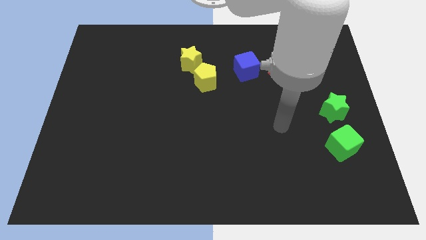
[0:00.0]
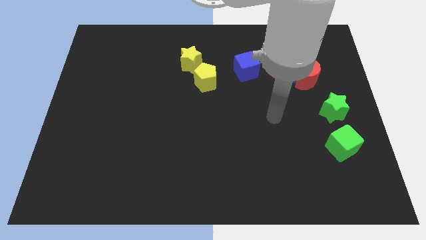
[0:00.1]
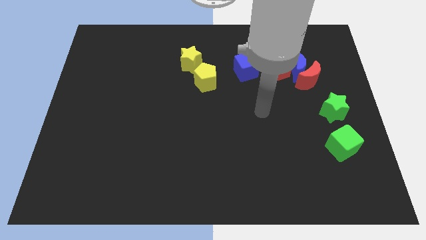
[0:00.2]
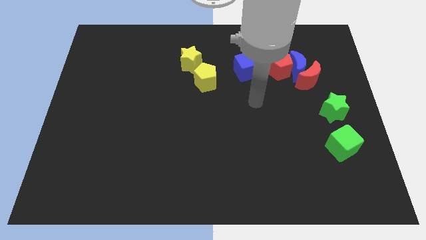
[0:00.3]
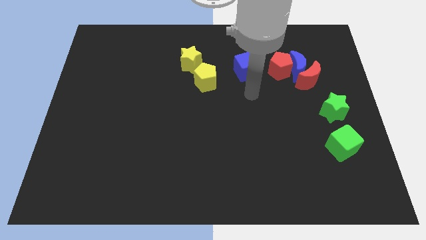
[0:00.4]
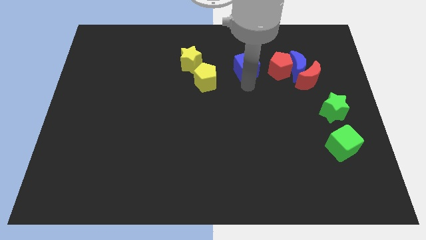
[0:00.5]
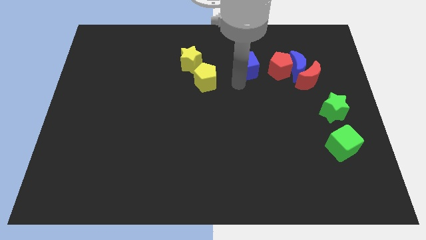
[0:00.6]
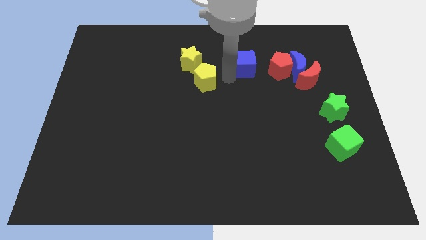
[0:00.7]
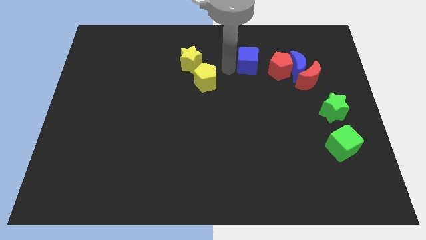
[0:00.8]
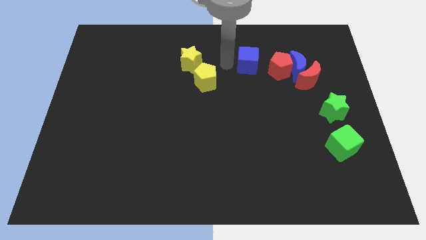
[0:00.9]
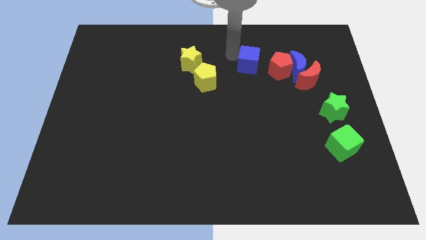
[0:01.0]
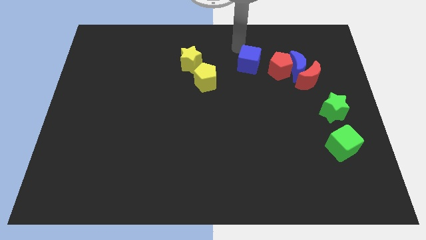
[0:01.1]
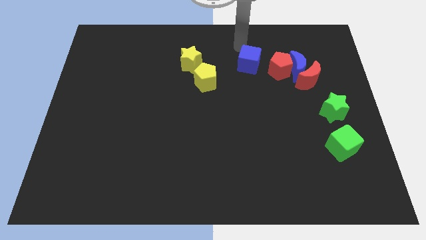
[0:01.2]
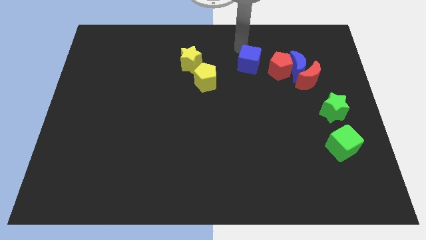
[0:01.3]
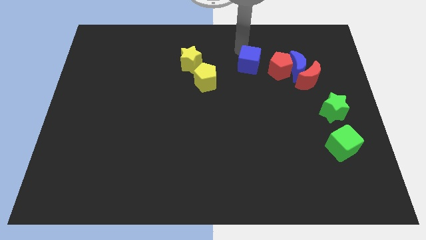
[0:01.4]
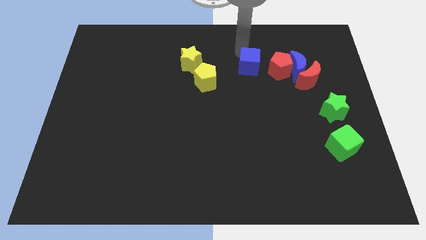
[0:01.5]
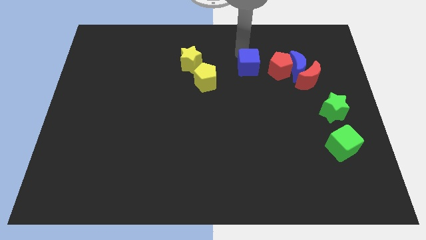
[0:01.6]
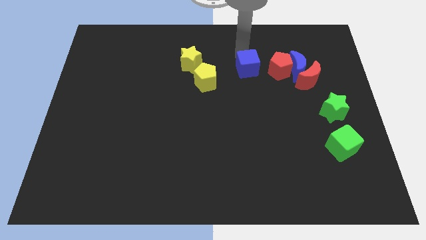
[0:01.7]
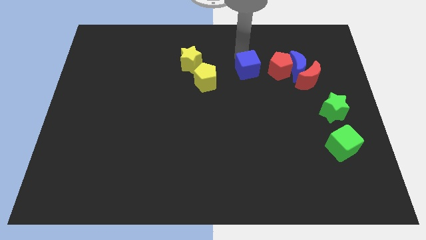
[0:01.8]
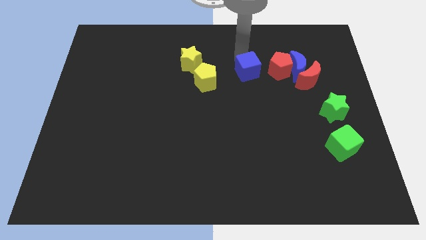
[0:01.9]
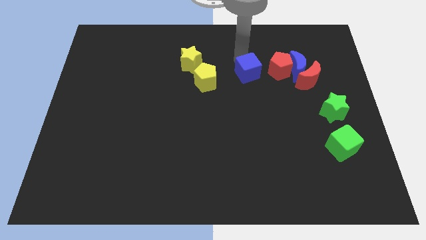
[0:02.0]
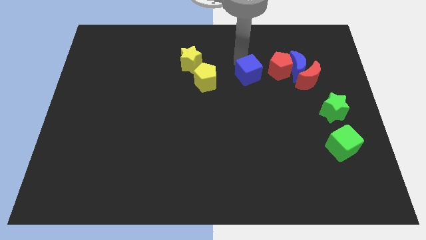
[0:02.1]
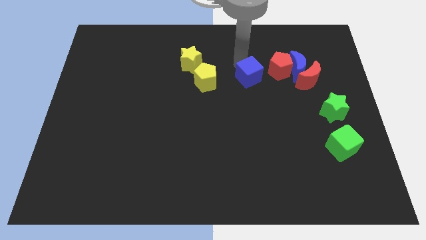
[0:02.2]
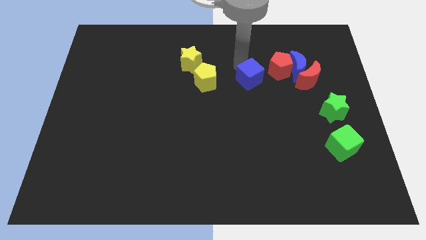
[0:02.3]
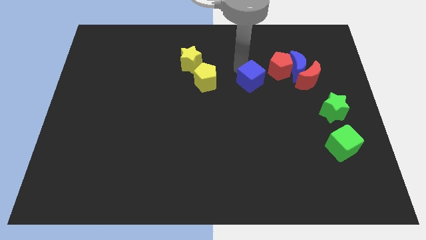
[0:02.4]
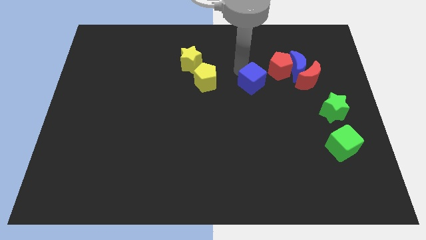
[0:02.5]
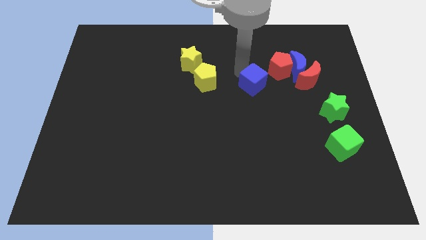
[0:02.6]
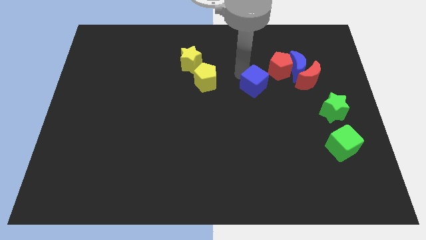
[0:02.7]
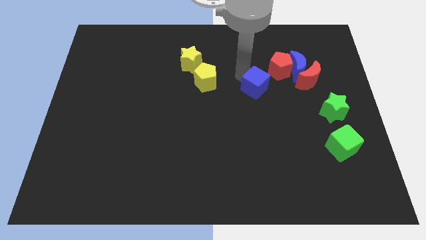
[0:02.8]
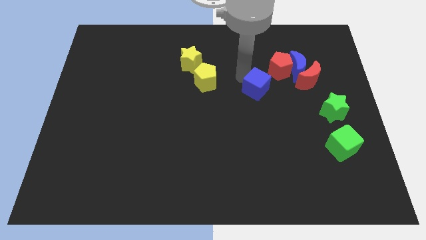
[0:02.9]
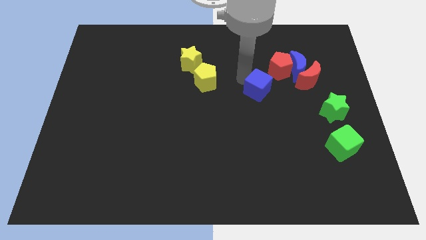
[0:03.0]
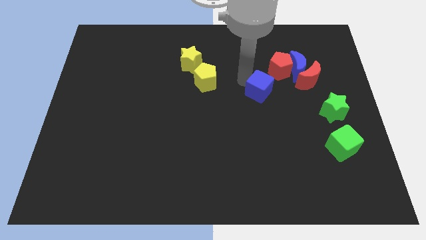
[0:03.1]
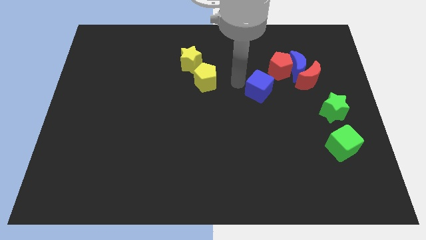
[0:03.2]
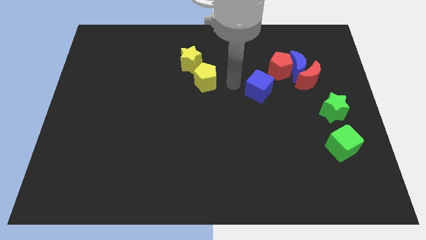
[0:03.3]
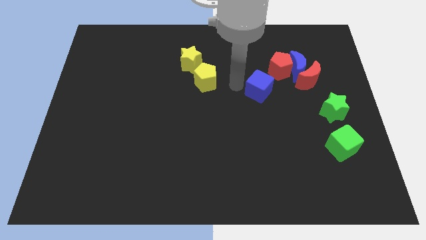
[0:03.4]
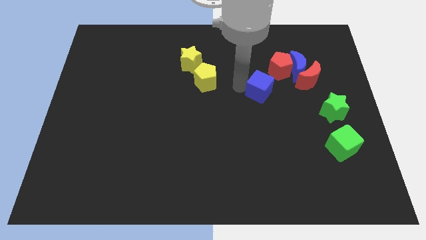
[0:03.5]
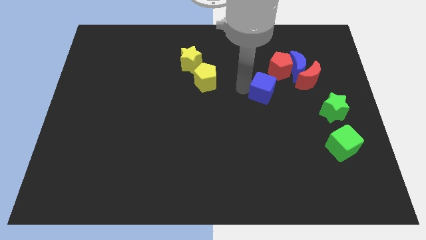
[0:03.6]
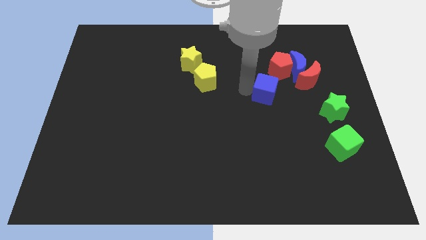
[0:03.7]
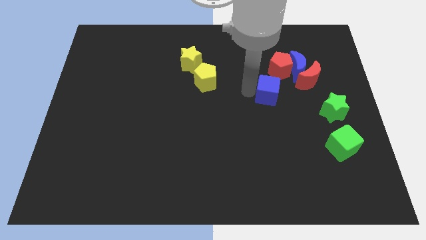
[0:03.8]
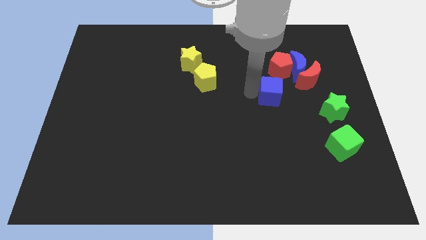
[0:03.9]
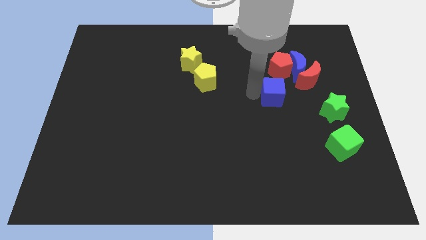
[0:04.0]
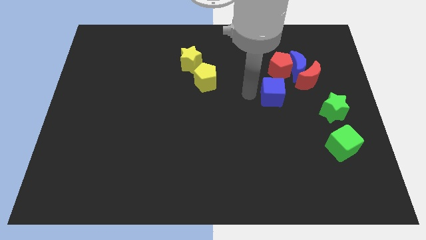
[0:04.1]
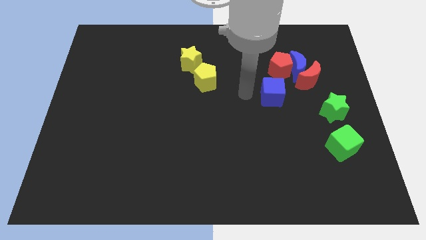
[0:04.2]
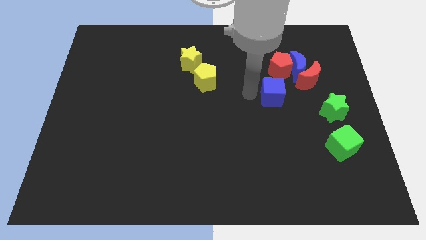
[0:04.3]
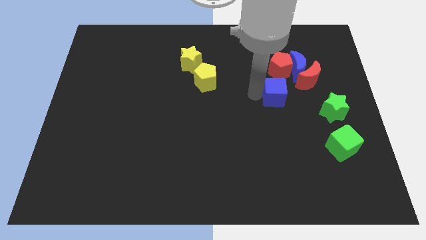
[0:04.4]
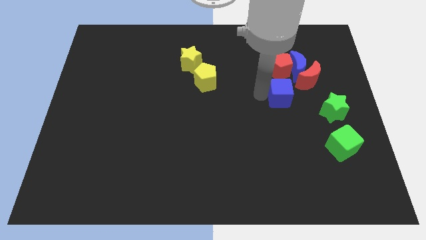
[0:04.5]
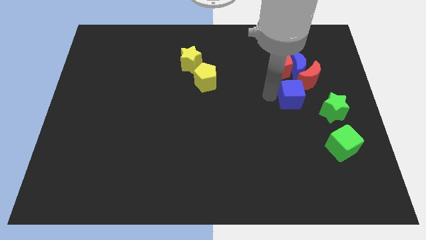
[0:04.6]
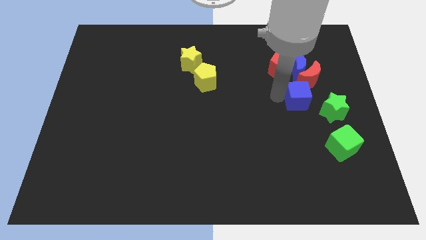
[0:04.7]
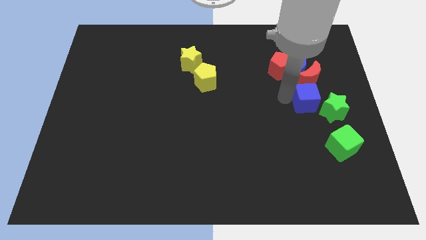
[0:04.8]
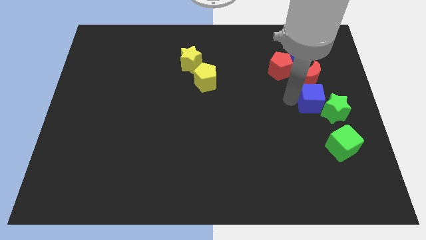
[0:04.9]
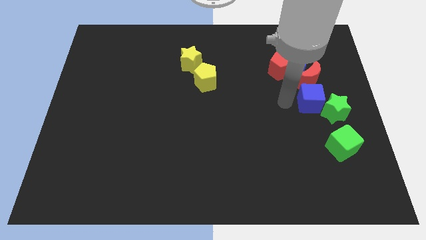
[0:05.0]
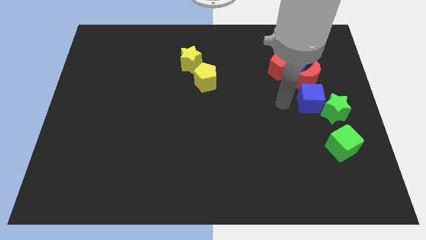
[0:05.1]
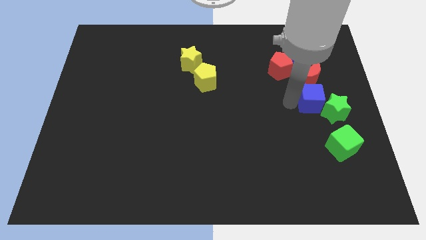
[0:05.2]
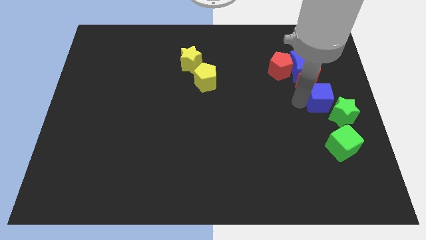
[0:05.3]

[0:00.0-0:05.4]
slide the blue cube to the center right
